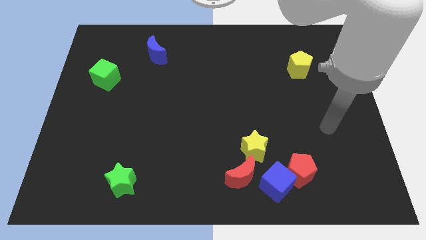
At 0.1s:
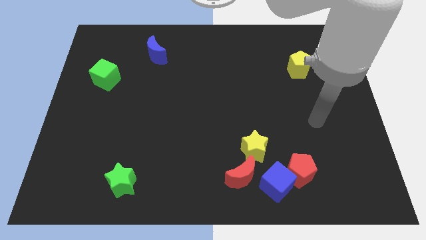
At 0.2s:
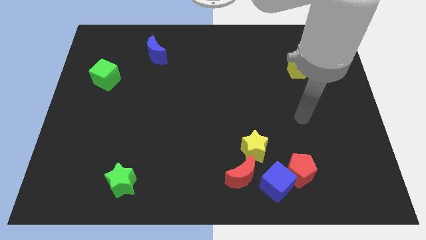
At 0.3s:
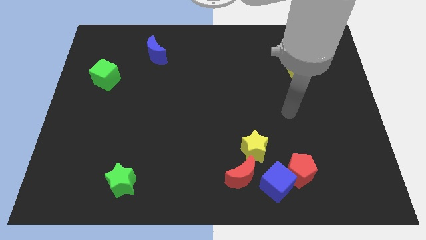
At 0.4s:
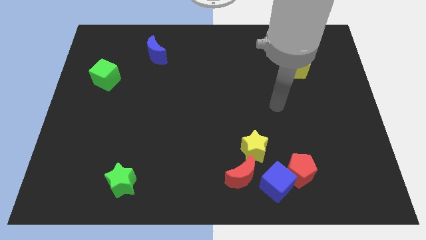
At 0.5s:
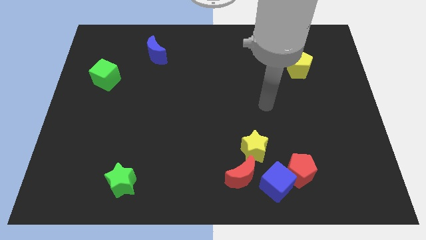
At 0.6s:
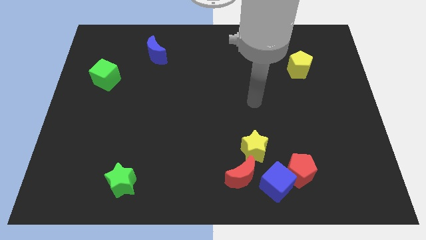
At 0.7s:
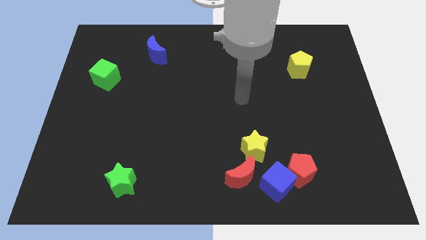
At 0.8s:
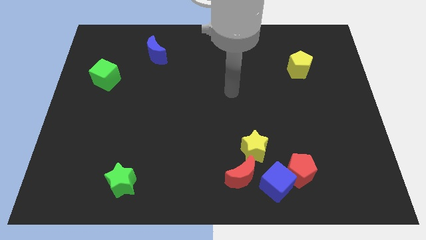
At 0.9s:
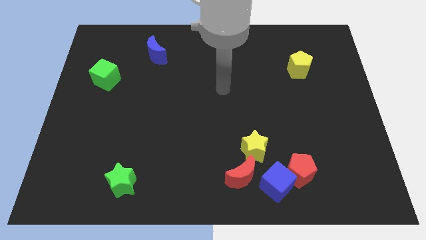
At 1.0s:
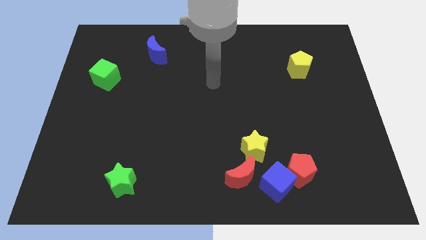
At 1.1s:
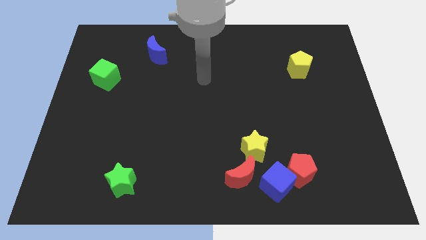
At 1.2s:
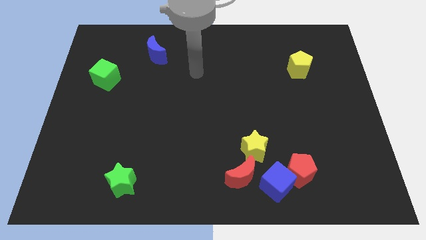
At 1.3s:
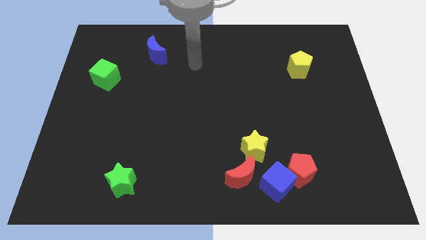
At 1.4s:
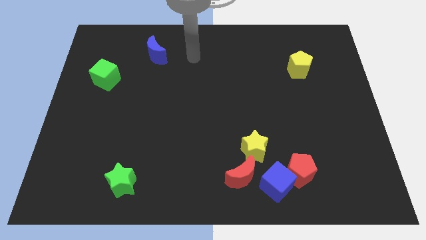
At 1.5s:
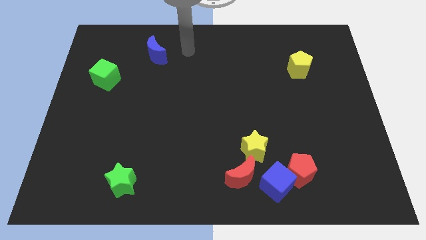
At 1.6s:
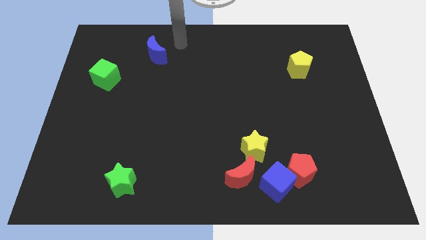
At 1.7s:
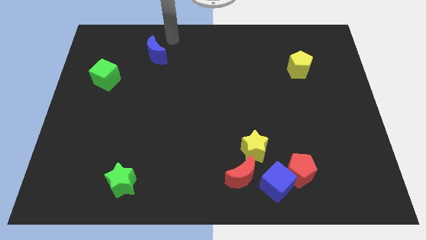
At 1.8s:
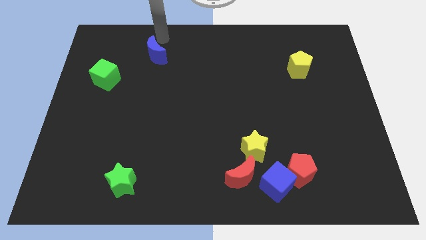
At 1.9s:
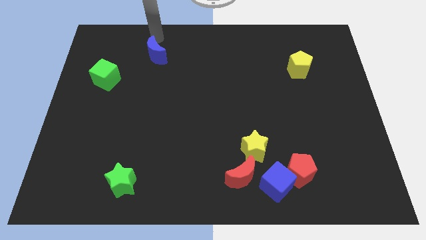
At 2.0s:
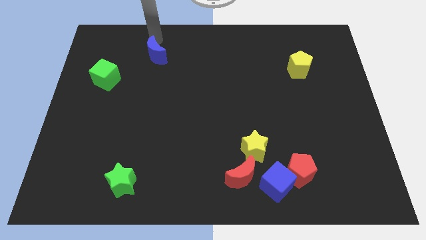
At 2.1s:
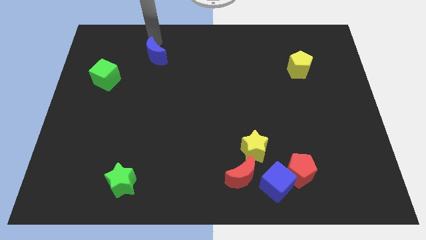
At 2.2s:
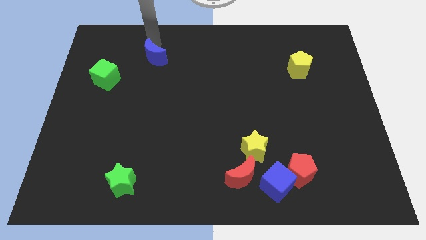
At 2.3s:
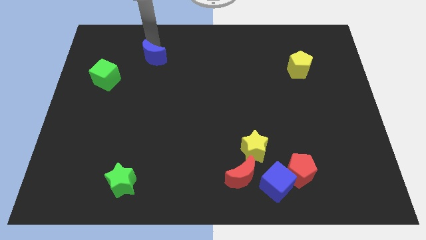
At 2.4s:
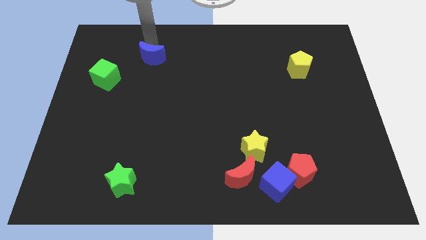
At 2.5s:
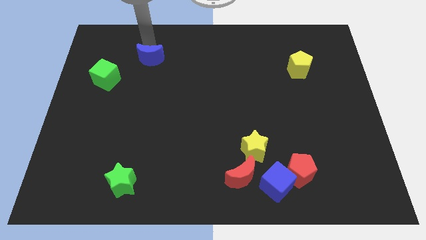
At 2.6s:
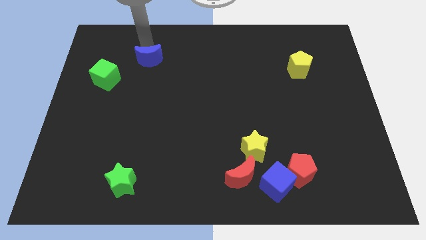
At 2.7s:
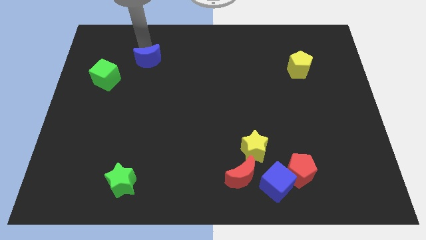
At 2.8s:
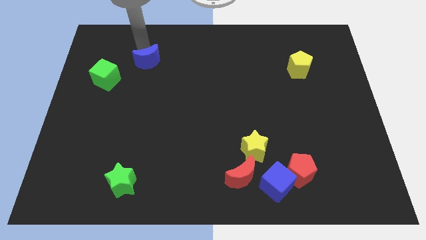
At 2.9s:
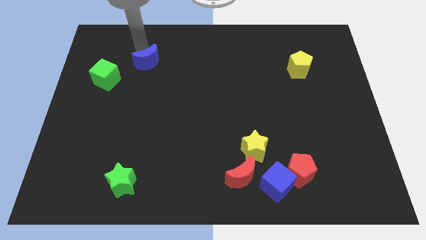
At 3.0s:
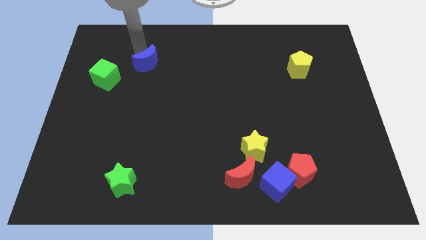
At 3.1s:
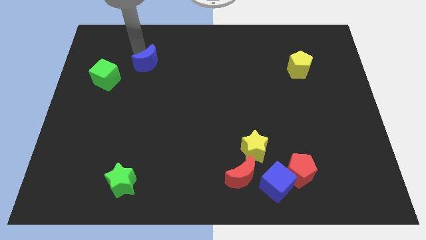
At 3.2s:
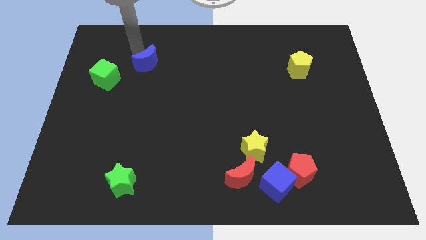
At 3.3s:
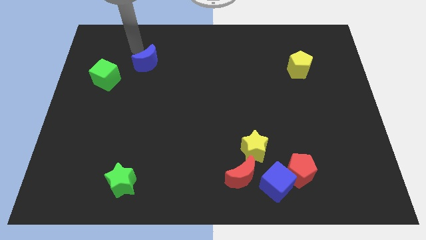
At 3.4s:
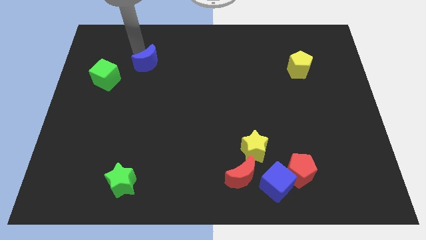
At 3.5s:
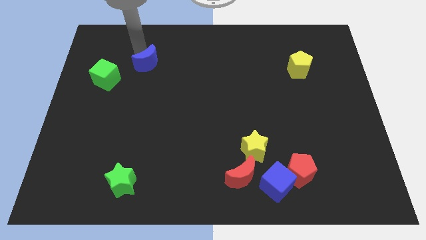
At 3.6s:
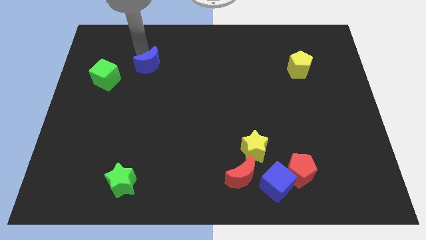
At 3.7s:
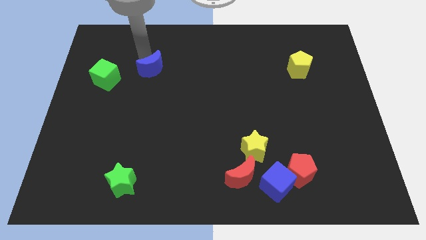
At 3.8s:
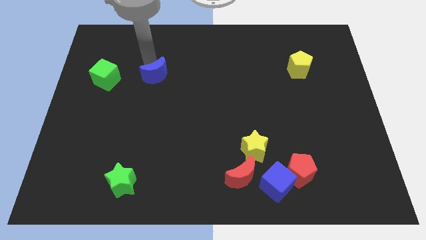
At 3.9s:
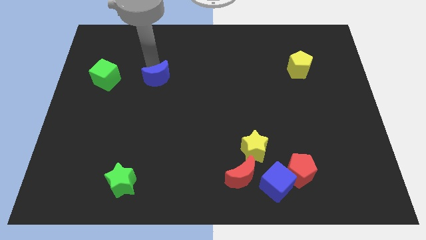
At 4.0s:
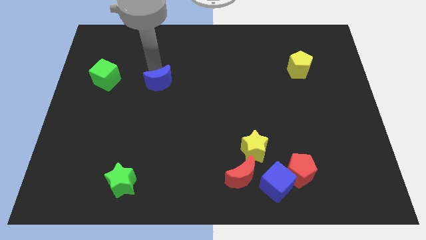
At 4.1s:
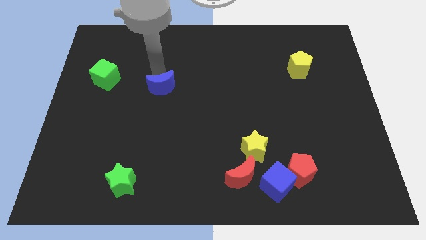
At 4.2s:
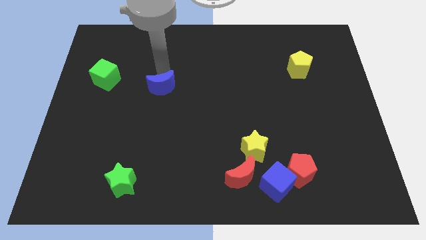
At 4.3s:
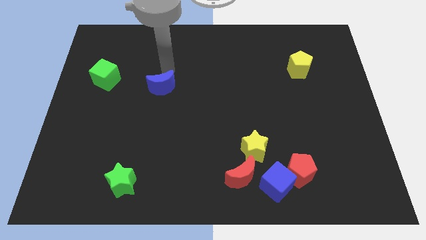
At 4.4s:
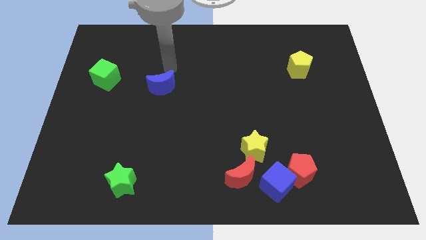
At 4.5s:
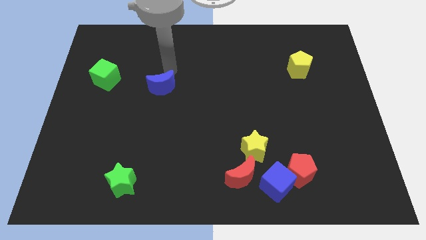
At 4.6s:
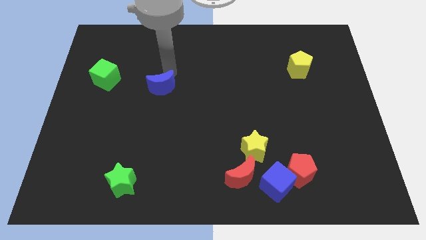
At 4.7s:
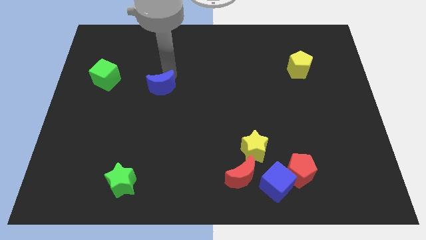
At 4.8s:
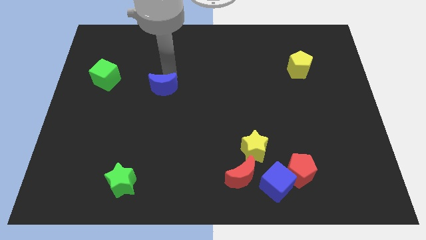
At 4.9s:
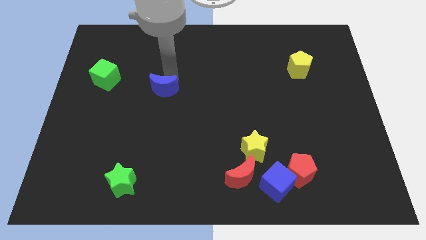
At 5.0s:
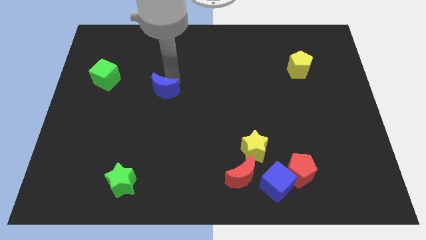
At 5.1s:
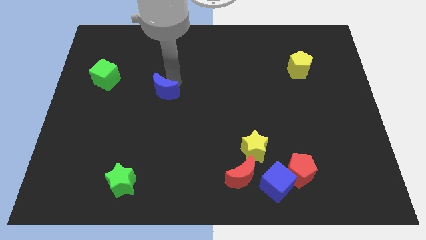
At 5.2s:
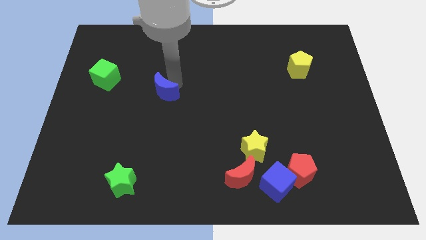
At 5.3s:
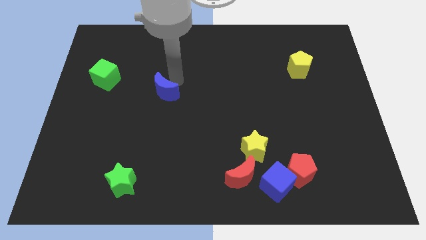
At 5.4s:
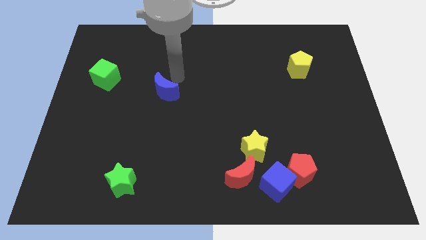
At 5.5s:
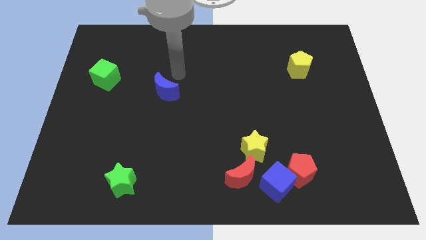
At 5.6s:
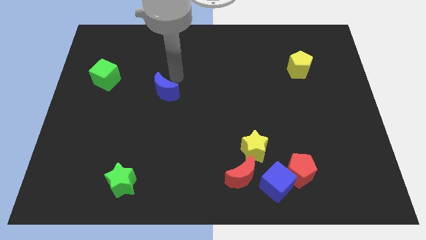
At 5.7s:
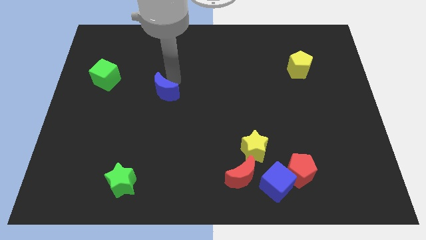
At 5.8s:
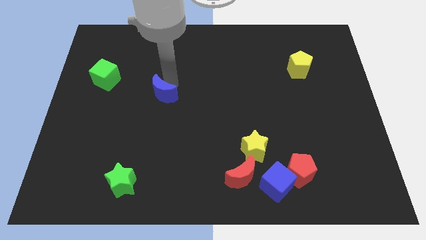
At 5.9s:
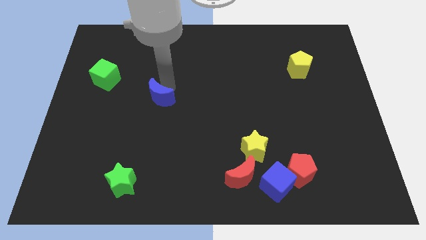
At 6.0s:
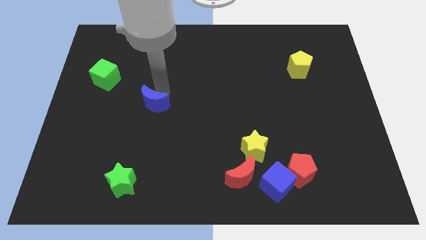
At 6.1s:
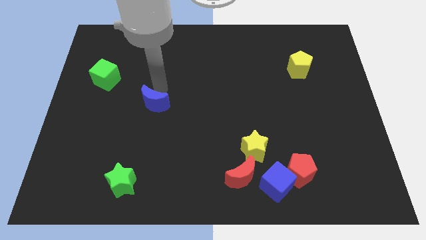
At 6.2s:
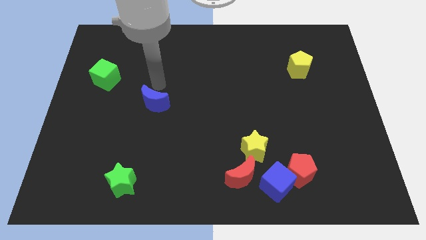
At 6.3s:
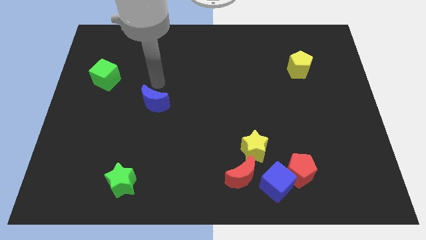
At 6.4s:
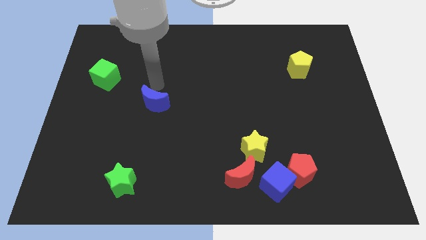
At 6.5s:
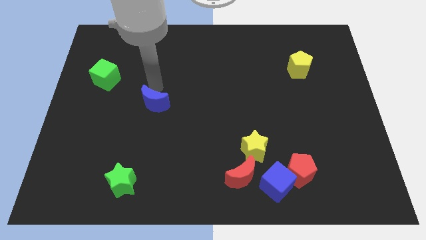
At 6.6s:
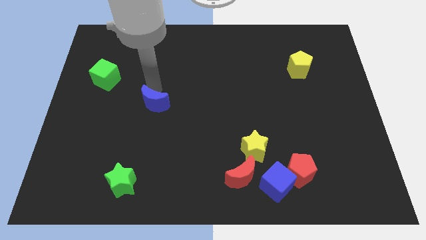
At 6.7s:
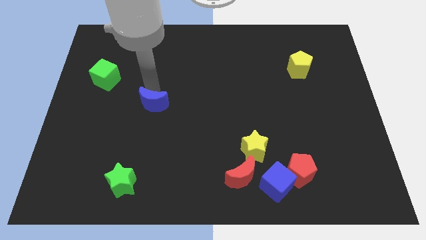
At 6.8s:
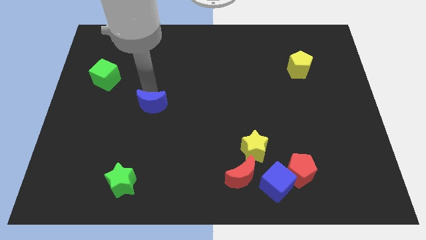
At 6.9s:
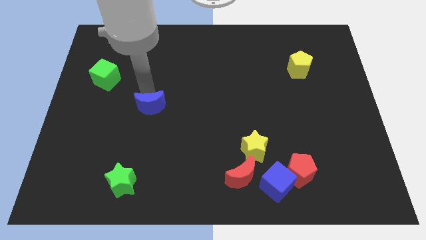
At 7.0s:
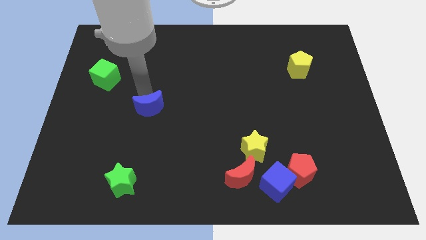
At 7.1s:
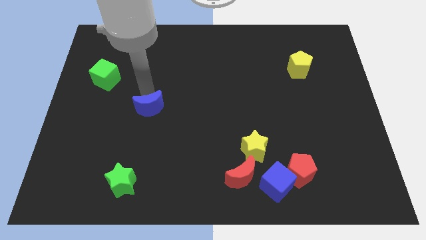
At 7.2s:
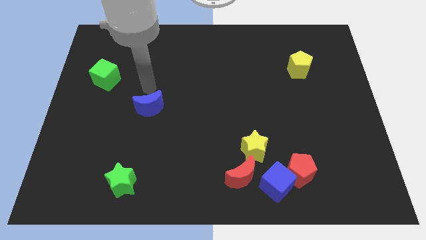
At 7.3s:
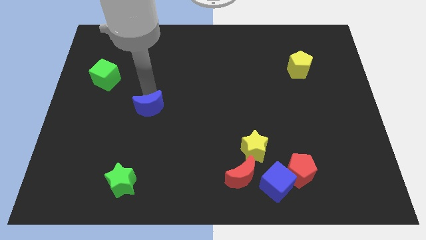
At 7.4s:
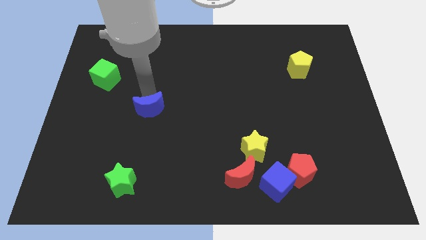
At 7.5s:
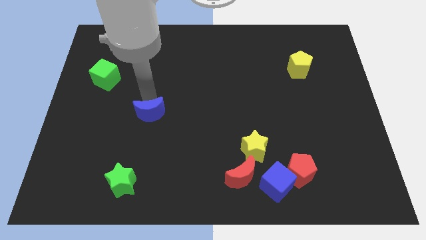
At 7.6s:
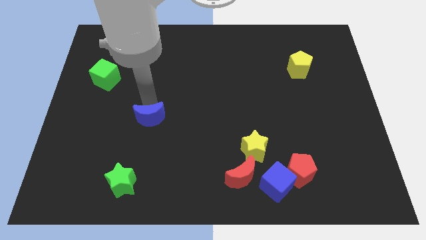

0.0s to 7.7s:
slide the blue moon downwards

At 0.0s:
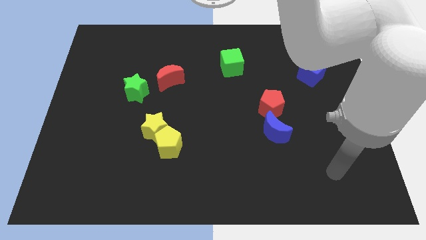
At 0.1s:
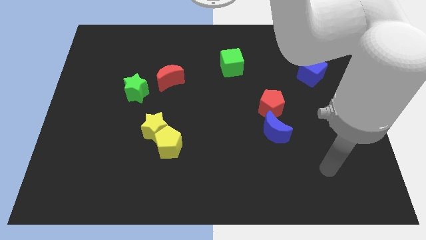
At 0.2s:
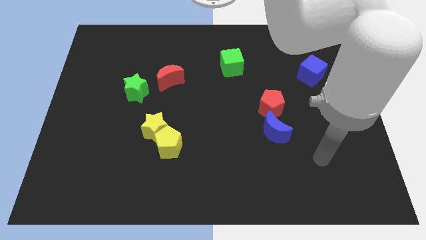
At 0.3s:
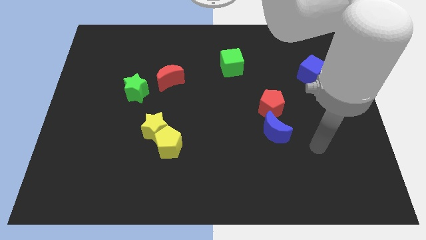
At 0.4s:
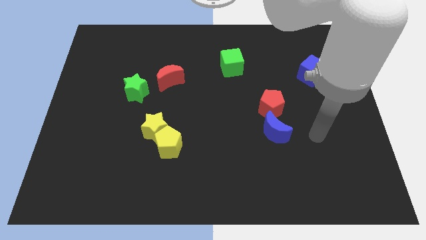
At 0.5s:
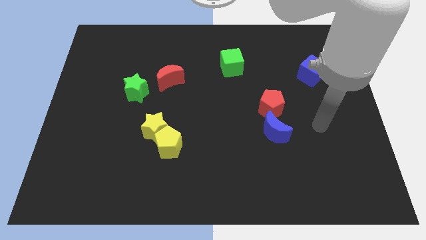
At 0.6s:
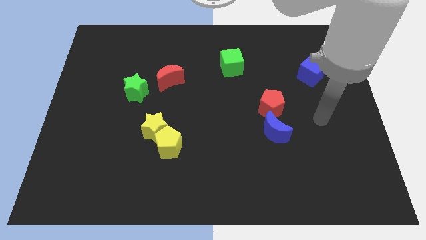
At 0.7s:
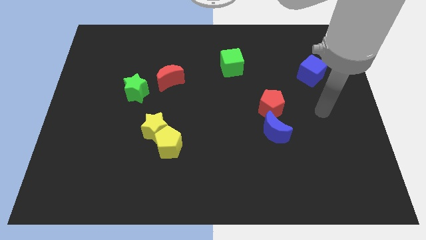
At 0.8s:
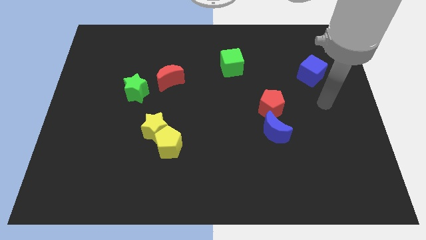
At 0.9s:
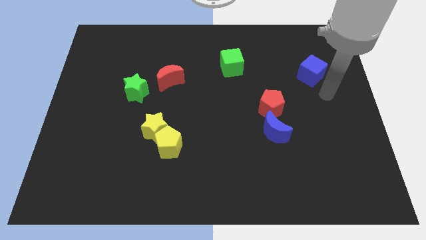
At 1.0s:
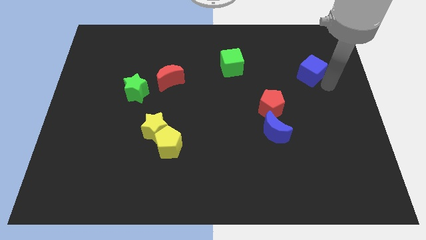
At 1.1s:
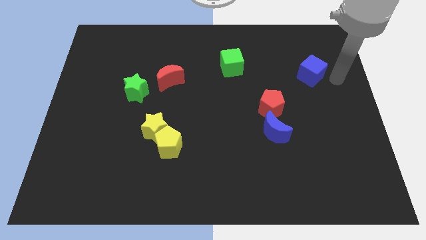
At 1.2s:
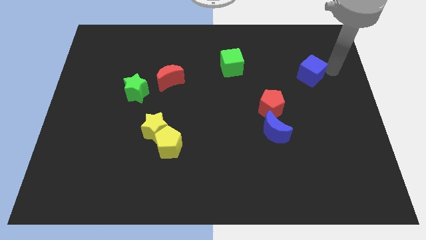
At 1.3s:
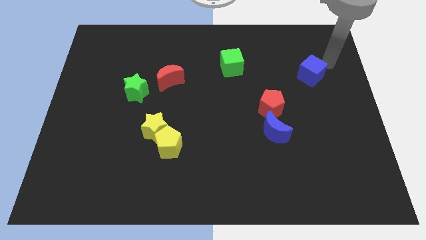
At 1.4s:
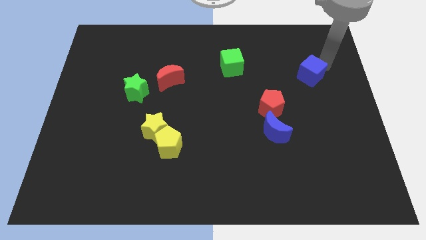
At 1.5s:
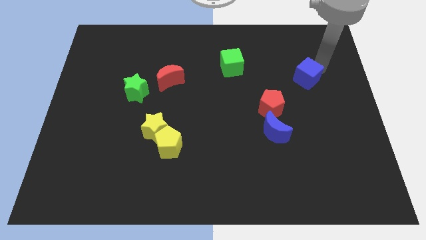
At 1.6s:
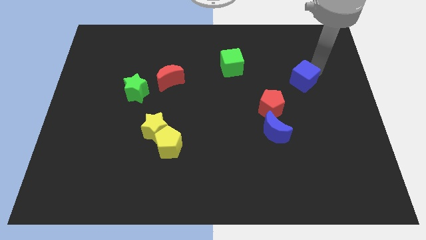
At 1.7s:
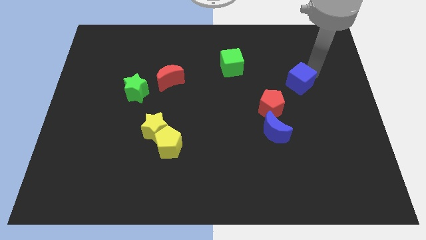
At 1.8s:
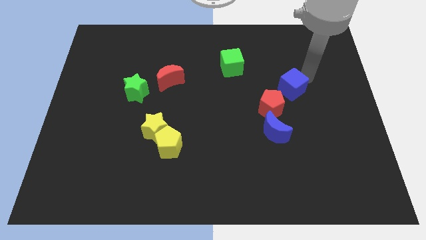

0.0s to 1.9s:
push the blue cube somewhat down and to the left diagonally
